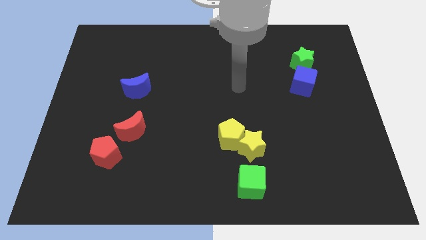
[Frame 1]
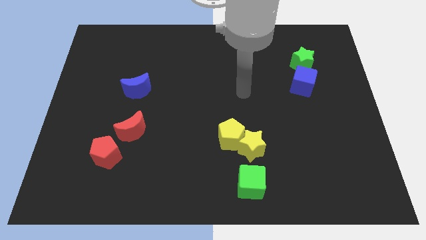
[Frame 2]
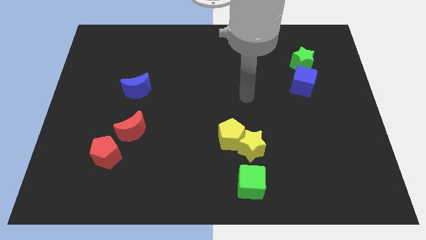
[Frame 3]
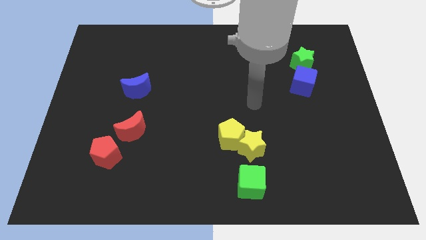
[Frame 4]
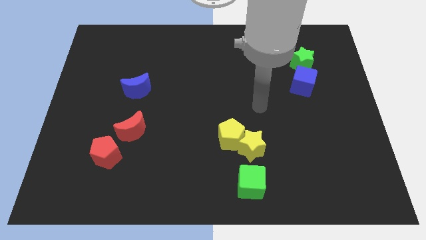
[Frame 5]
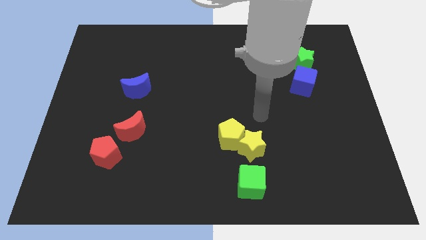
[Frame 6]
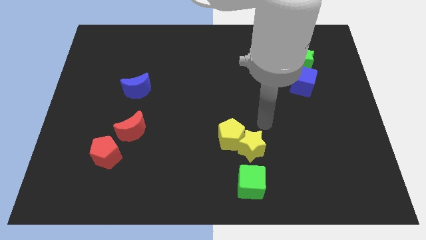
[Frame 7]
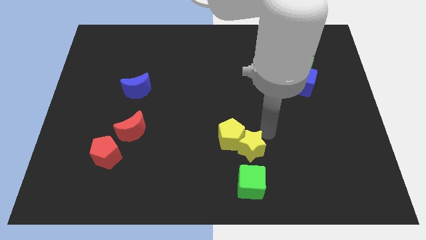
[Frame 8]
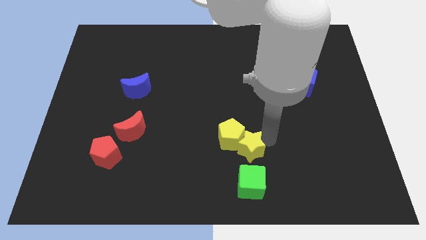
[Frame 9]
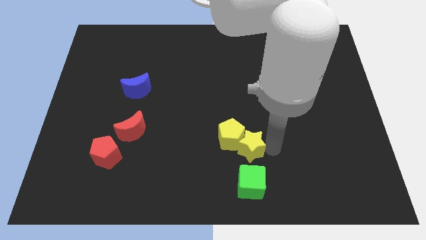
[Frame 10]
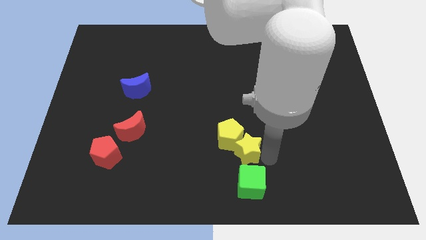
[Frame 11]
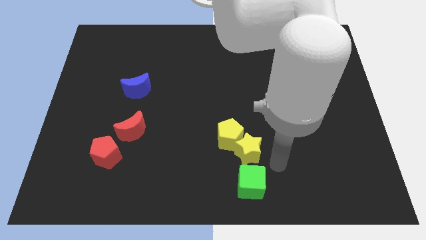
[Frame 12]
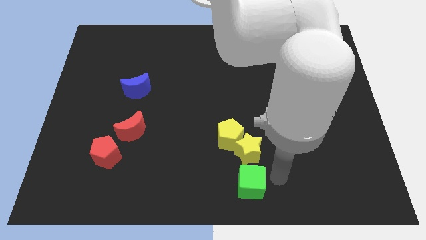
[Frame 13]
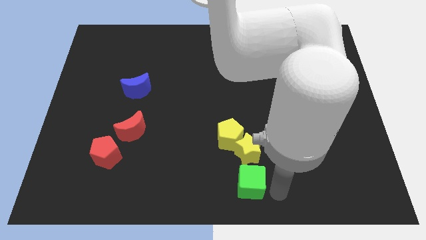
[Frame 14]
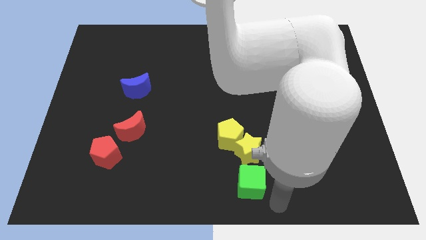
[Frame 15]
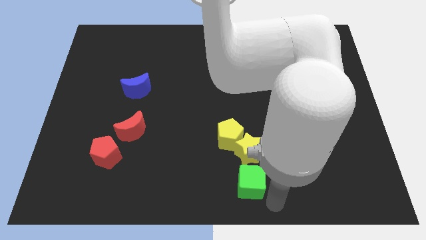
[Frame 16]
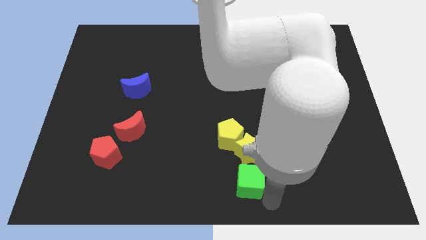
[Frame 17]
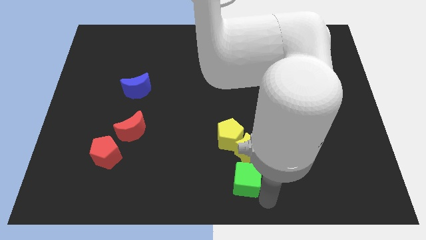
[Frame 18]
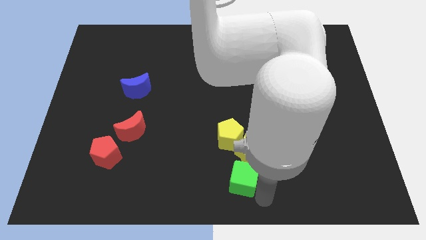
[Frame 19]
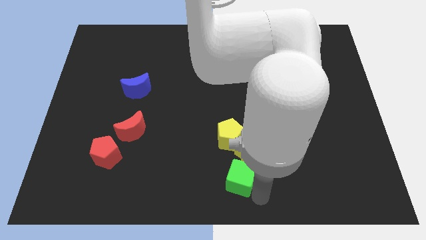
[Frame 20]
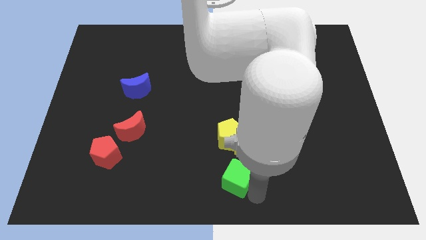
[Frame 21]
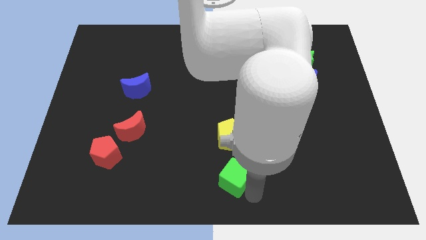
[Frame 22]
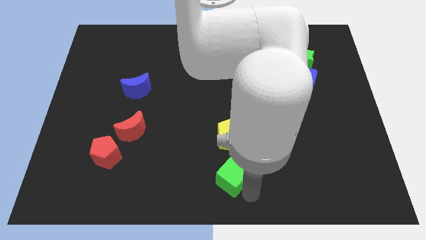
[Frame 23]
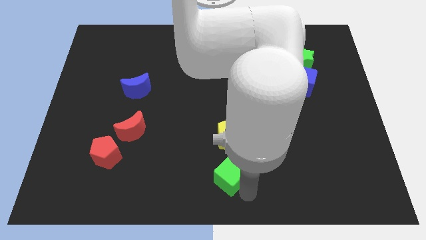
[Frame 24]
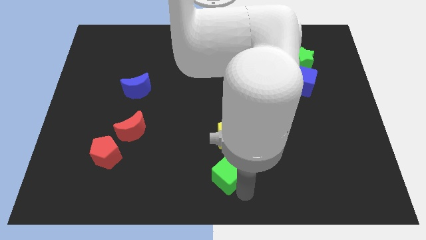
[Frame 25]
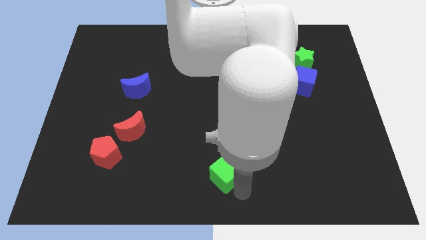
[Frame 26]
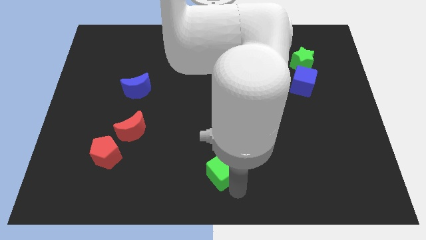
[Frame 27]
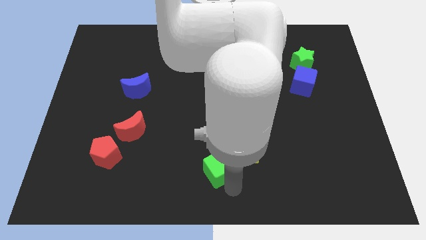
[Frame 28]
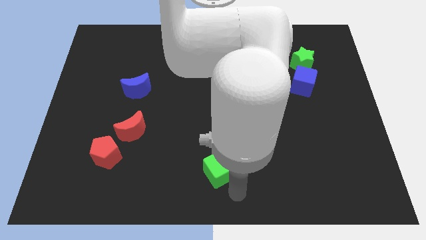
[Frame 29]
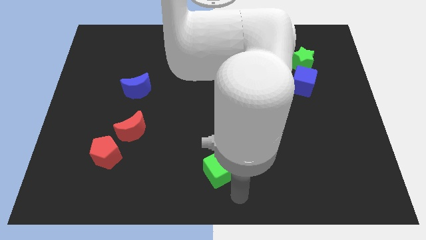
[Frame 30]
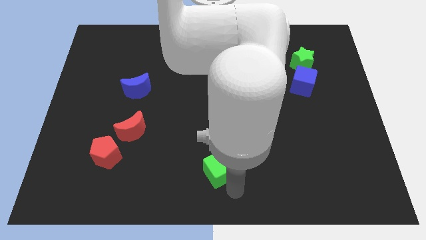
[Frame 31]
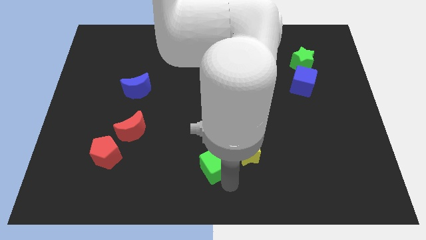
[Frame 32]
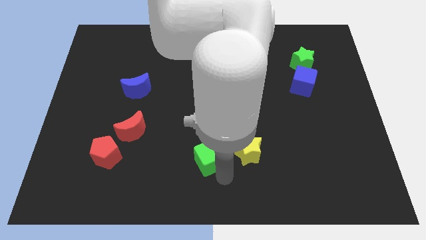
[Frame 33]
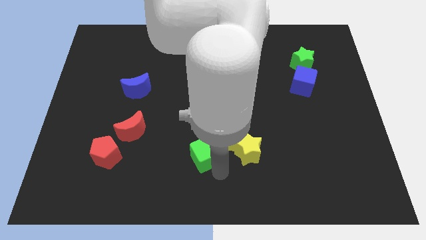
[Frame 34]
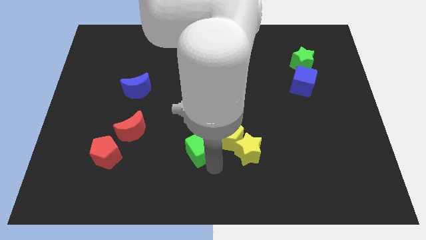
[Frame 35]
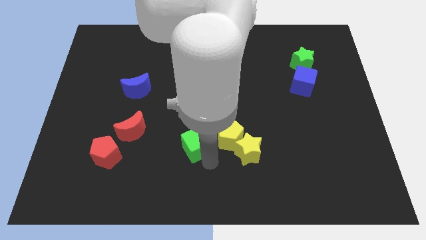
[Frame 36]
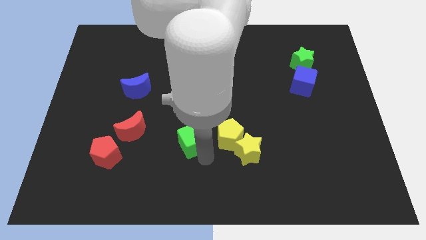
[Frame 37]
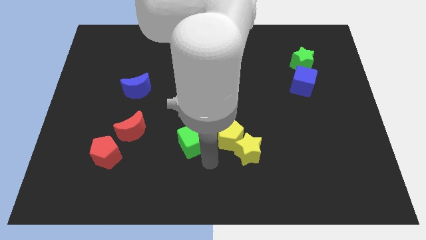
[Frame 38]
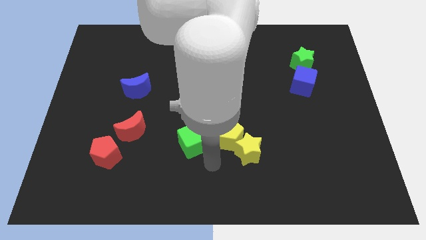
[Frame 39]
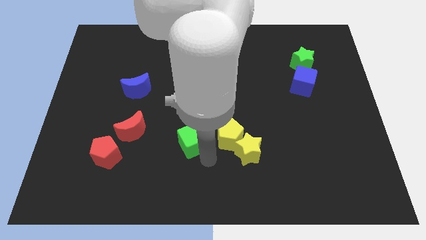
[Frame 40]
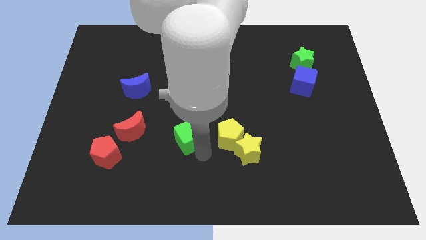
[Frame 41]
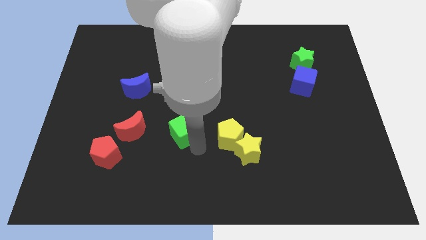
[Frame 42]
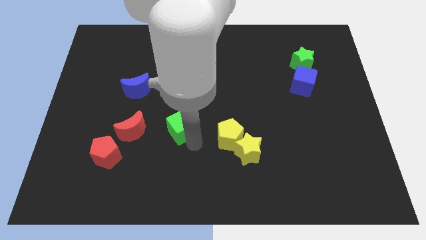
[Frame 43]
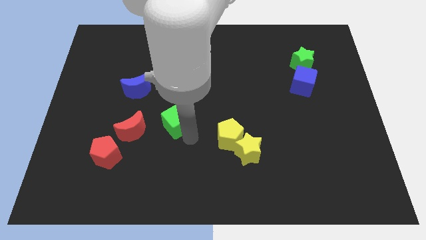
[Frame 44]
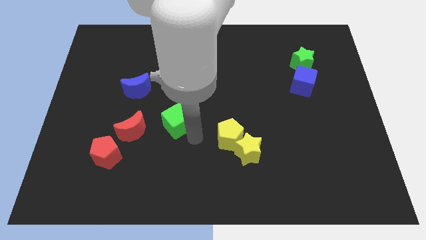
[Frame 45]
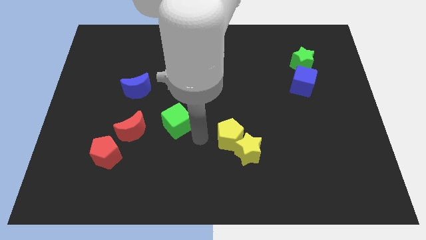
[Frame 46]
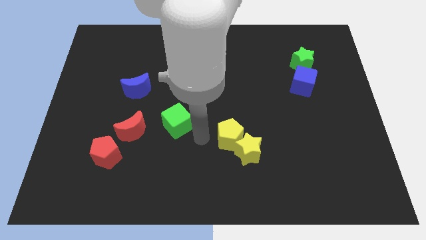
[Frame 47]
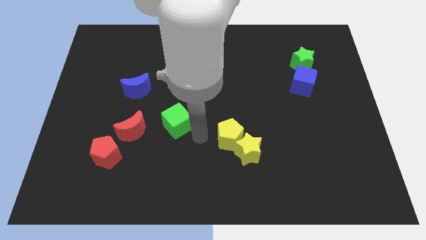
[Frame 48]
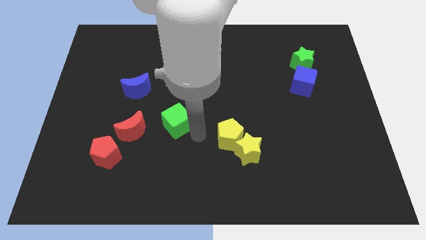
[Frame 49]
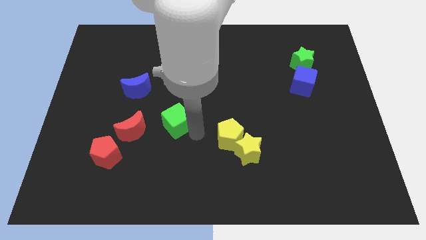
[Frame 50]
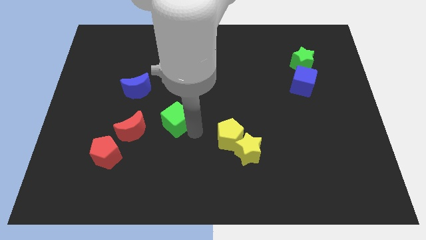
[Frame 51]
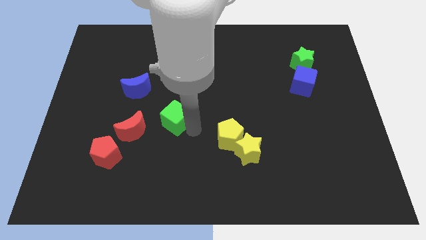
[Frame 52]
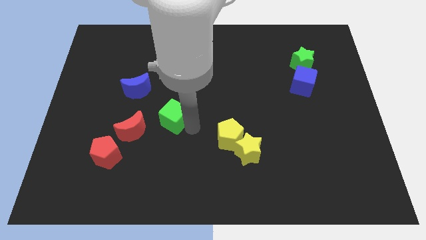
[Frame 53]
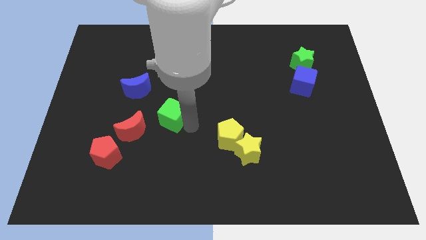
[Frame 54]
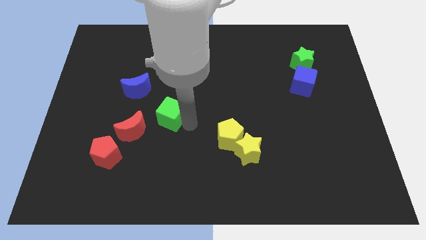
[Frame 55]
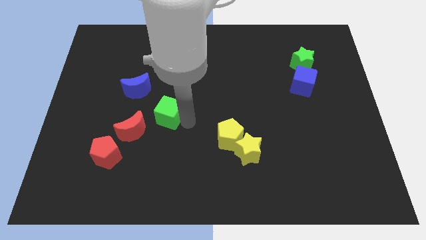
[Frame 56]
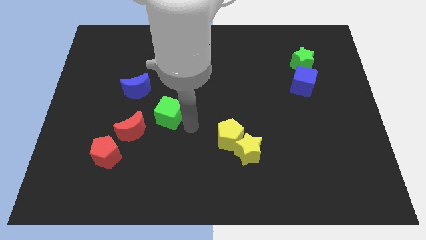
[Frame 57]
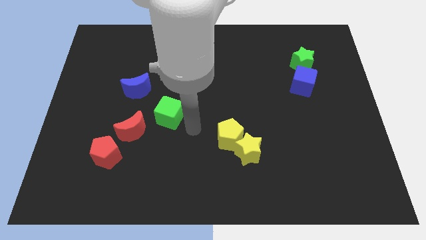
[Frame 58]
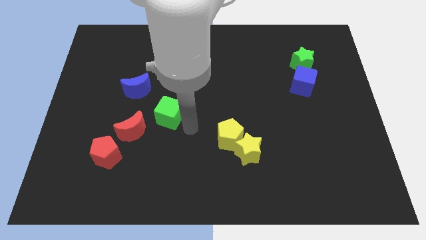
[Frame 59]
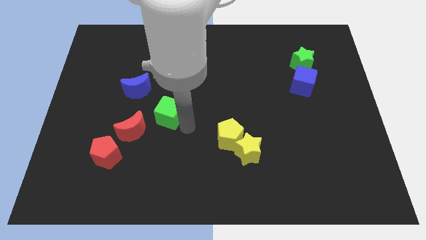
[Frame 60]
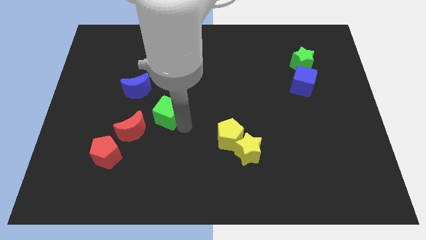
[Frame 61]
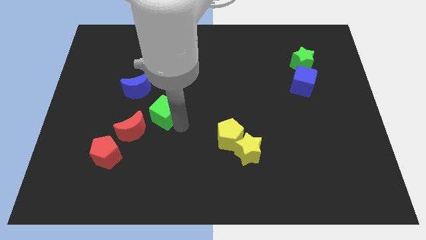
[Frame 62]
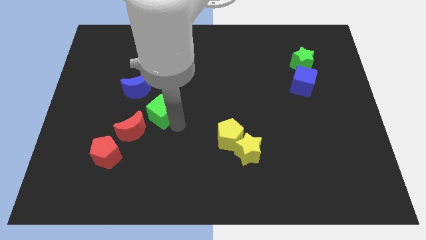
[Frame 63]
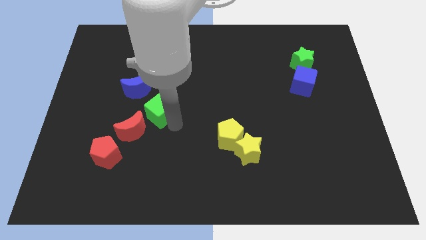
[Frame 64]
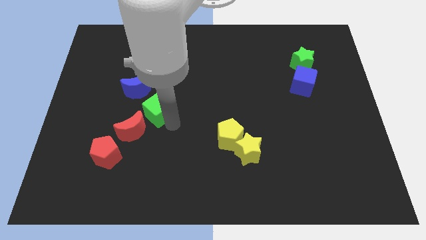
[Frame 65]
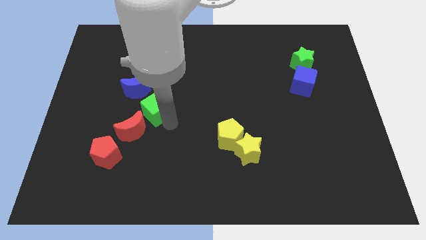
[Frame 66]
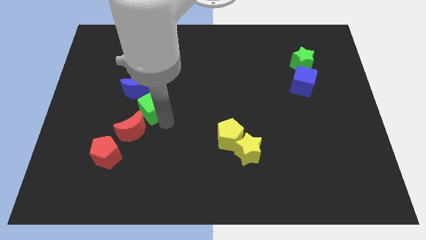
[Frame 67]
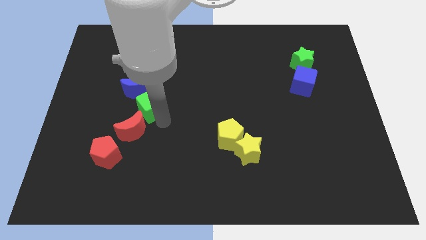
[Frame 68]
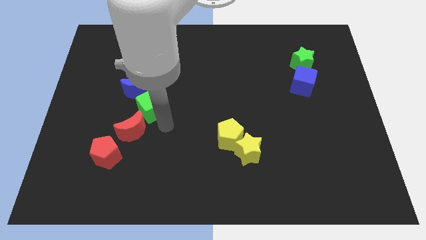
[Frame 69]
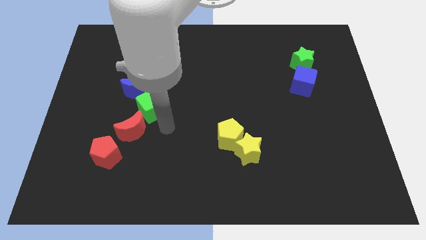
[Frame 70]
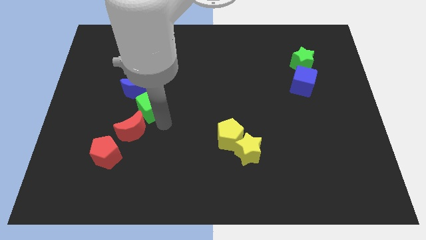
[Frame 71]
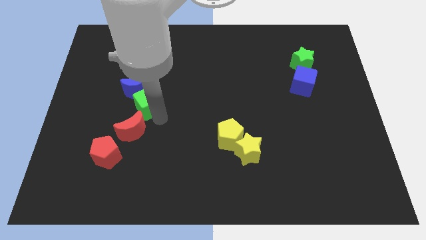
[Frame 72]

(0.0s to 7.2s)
push the green cube to the blue moon

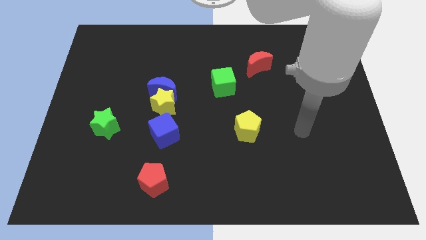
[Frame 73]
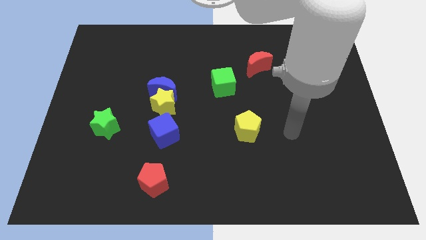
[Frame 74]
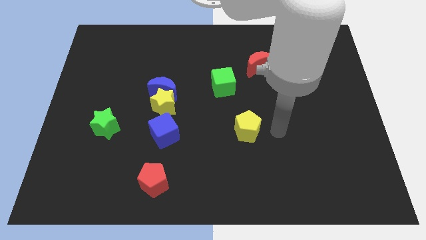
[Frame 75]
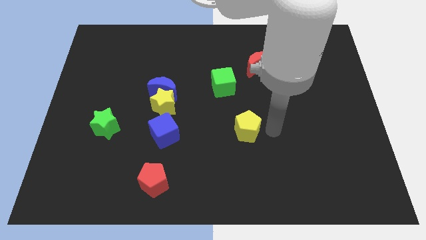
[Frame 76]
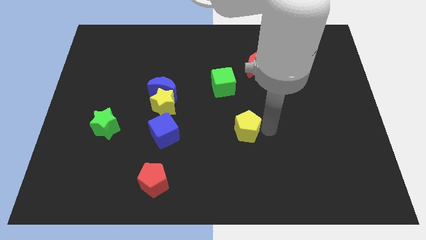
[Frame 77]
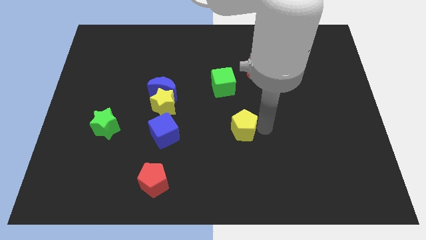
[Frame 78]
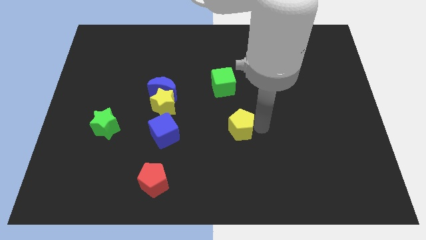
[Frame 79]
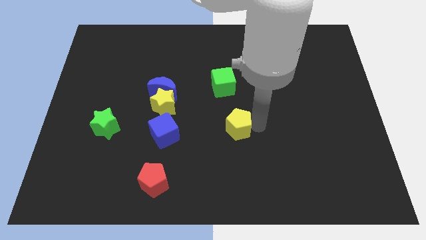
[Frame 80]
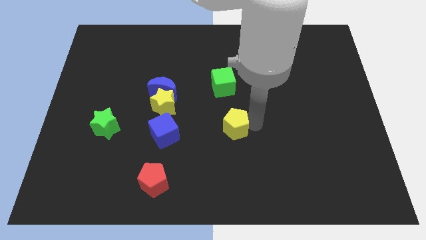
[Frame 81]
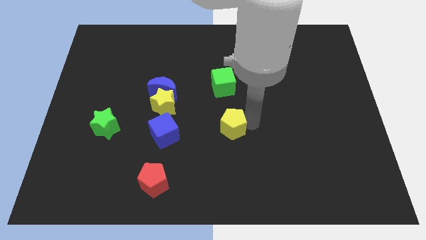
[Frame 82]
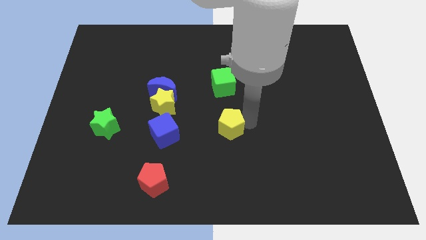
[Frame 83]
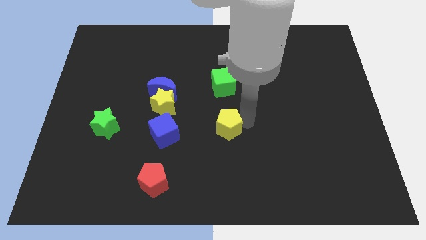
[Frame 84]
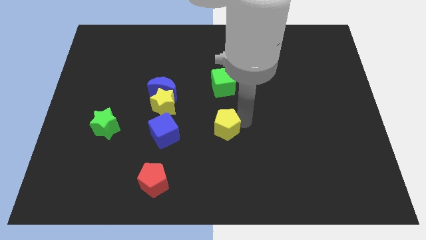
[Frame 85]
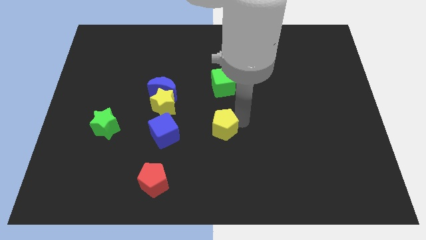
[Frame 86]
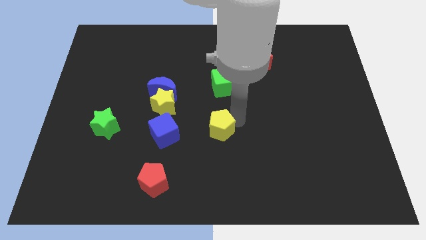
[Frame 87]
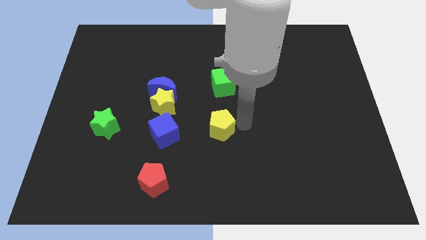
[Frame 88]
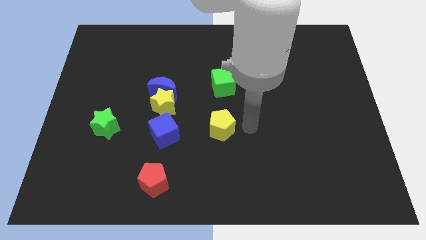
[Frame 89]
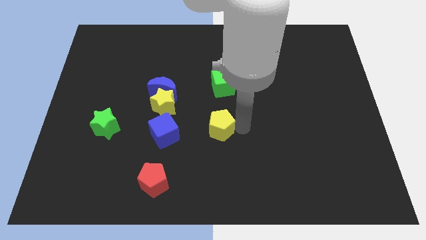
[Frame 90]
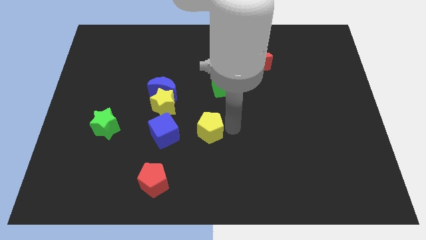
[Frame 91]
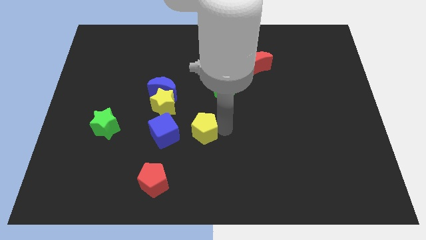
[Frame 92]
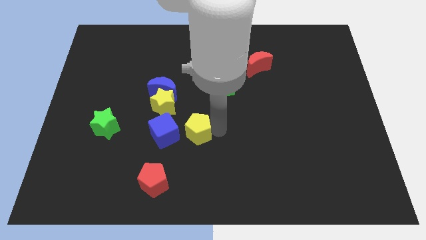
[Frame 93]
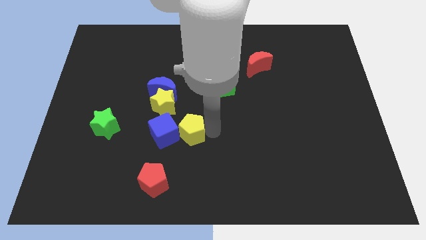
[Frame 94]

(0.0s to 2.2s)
slide the yellow pentagon close to the blue cube
